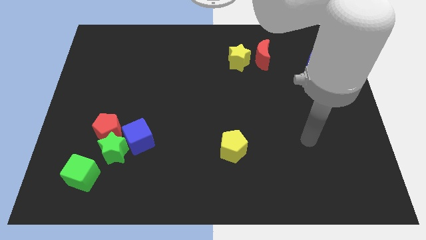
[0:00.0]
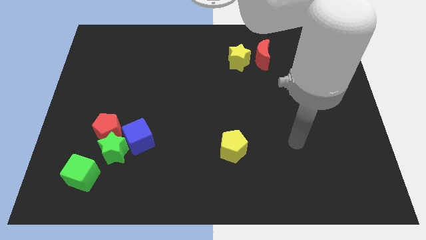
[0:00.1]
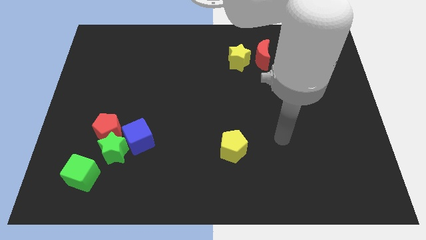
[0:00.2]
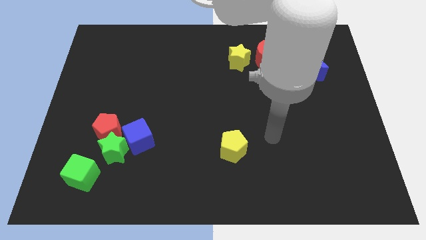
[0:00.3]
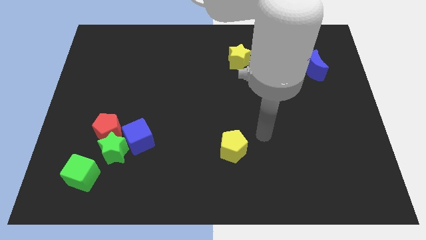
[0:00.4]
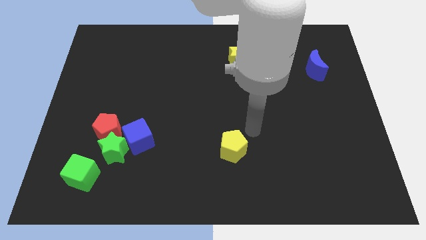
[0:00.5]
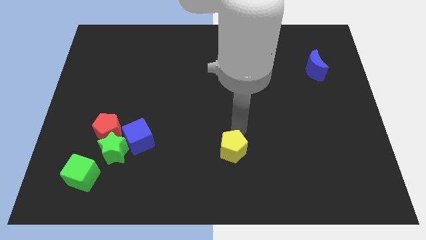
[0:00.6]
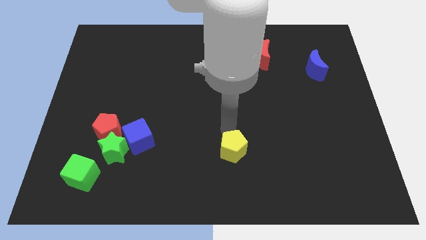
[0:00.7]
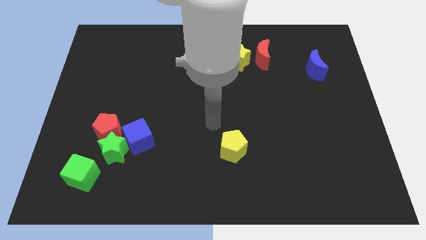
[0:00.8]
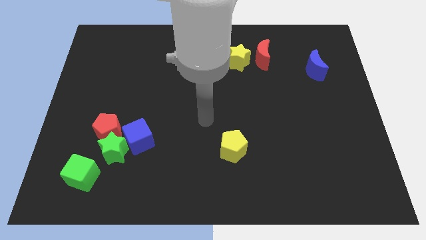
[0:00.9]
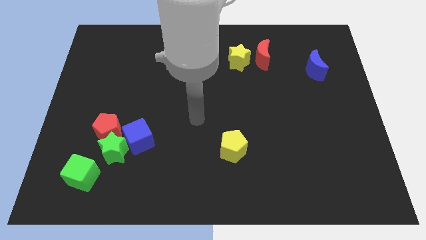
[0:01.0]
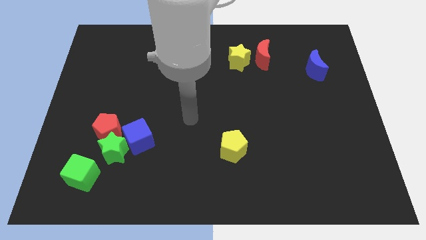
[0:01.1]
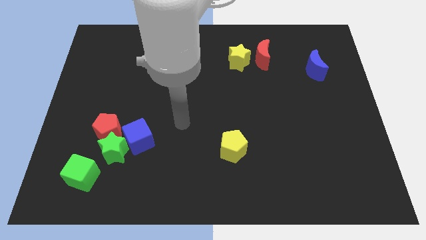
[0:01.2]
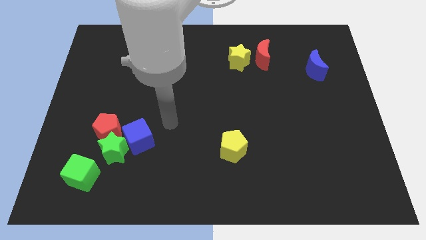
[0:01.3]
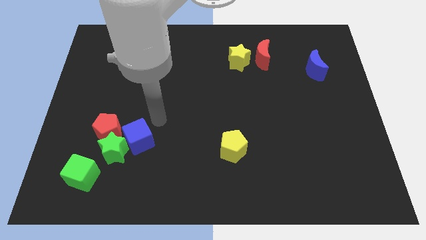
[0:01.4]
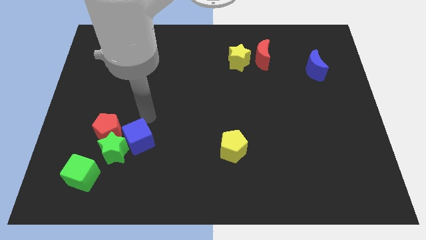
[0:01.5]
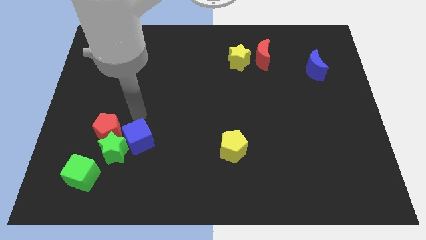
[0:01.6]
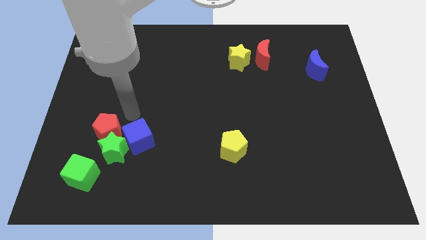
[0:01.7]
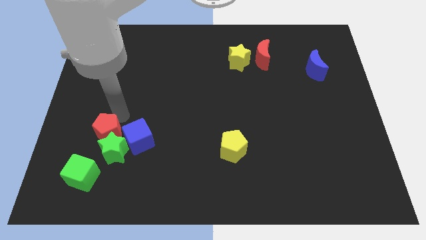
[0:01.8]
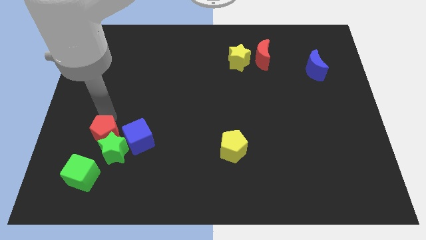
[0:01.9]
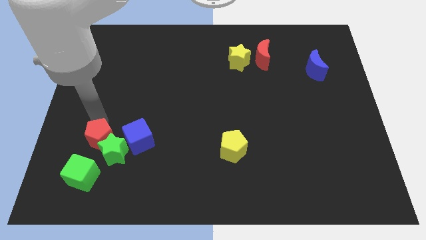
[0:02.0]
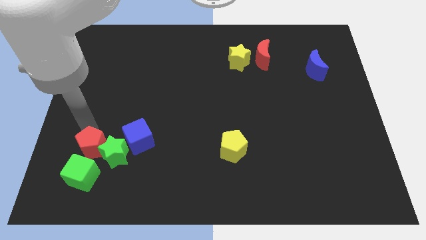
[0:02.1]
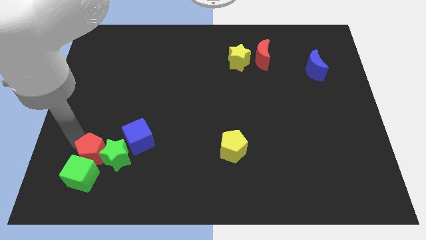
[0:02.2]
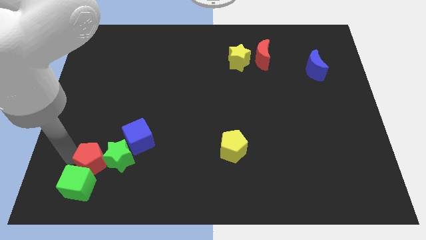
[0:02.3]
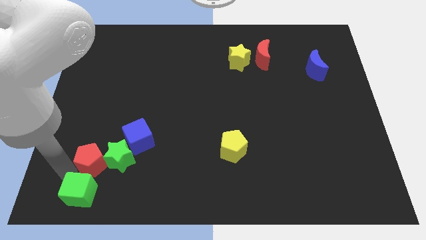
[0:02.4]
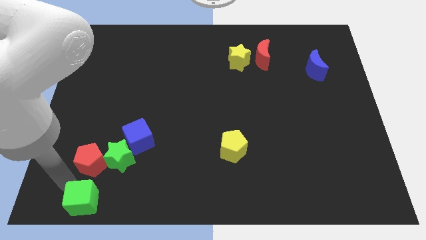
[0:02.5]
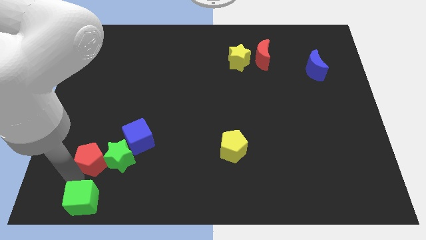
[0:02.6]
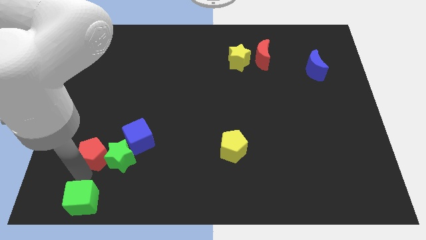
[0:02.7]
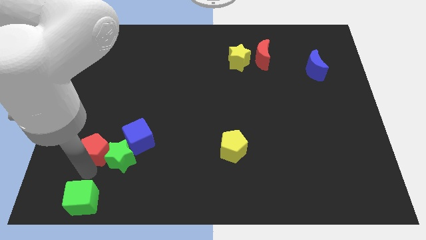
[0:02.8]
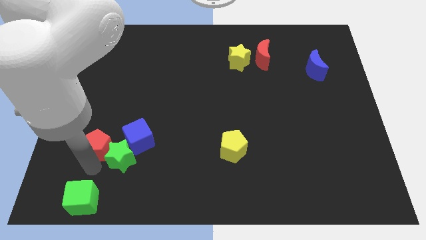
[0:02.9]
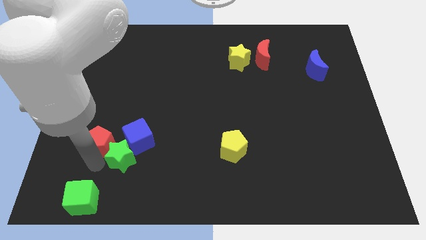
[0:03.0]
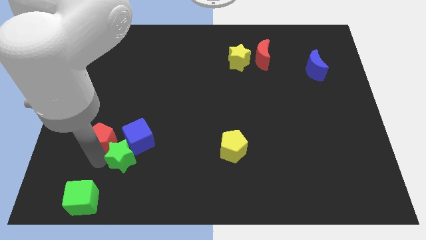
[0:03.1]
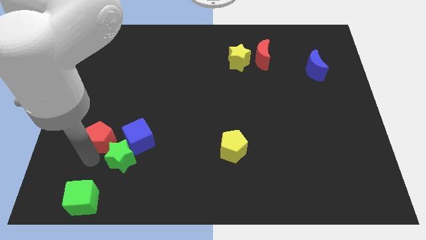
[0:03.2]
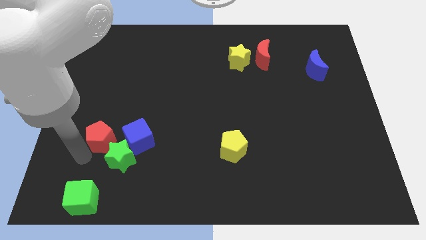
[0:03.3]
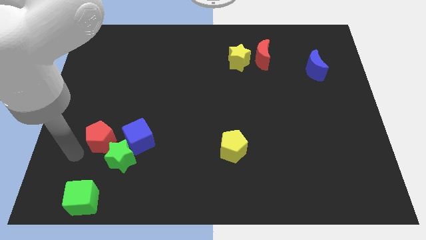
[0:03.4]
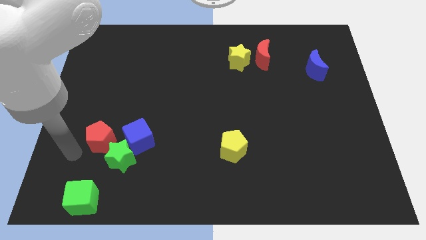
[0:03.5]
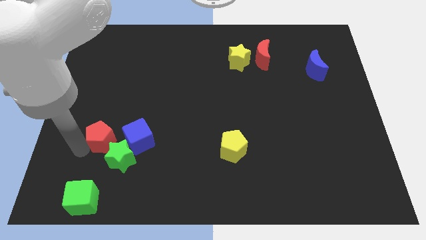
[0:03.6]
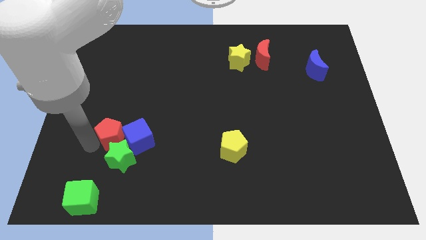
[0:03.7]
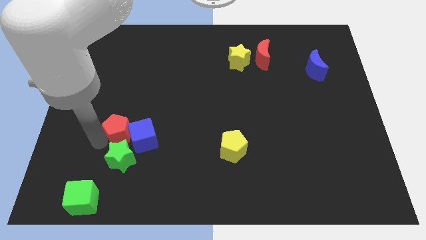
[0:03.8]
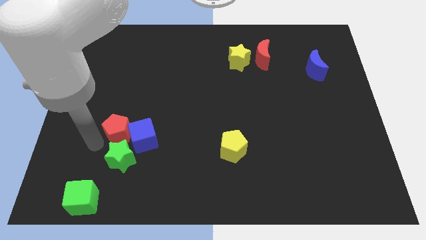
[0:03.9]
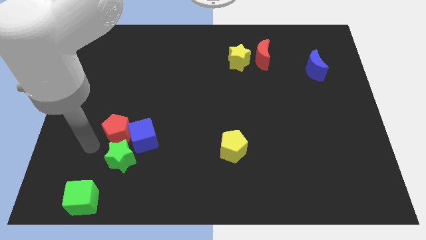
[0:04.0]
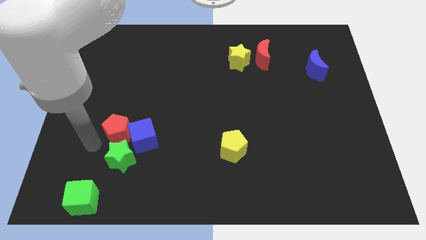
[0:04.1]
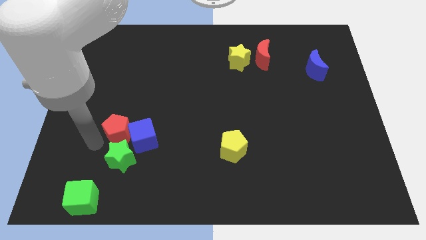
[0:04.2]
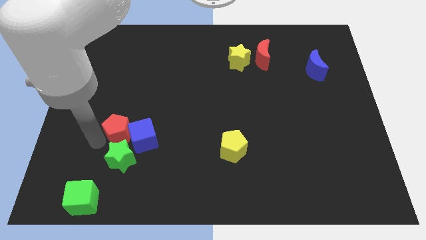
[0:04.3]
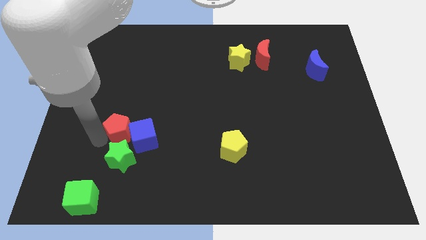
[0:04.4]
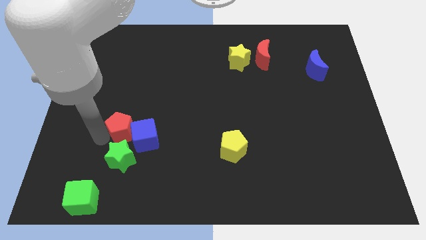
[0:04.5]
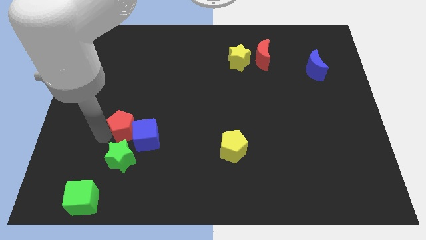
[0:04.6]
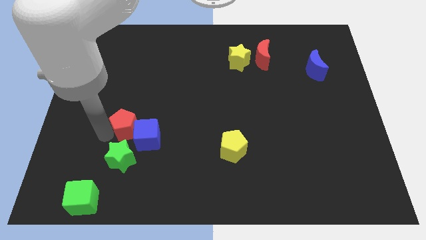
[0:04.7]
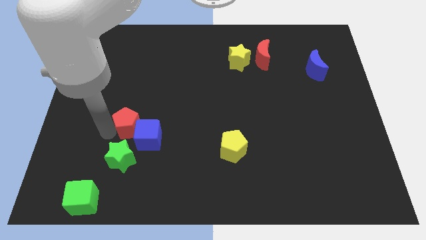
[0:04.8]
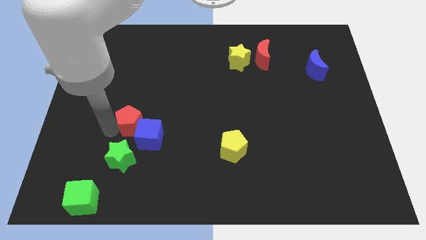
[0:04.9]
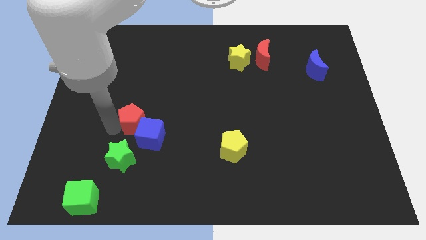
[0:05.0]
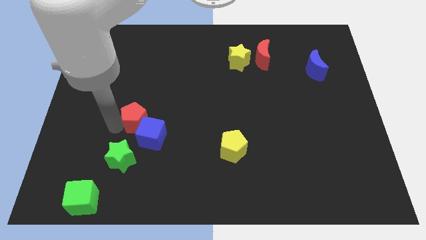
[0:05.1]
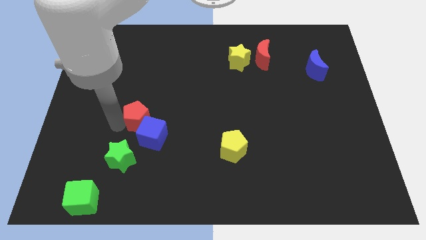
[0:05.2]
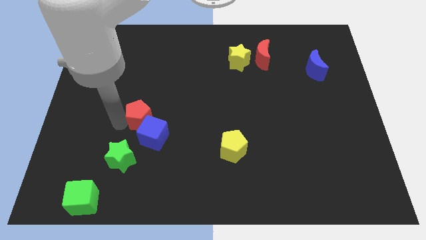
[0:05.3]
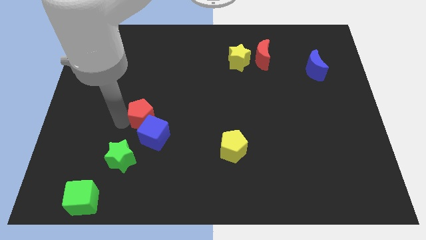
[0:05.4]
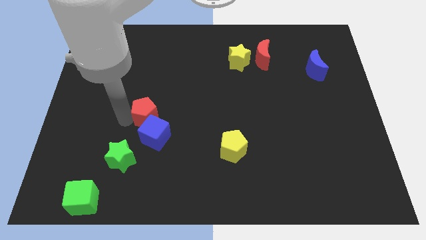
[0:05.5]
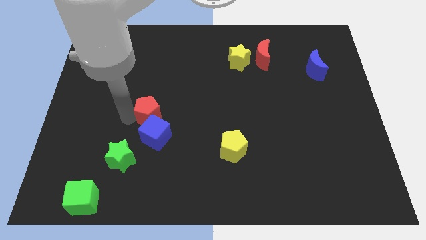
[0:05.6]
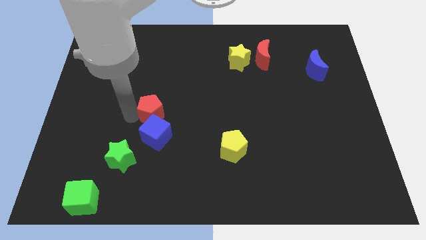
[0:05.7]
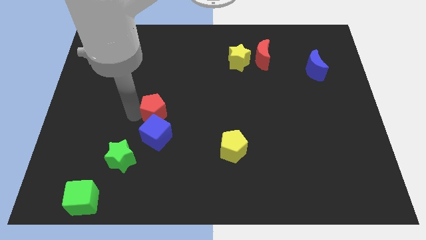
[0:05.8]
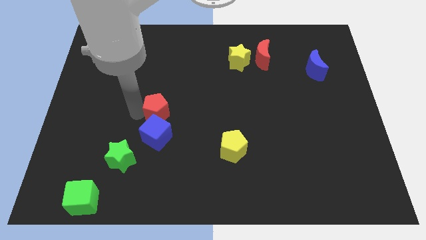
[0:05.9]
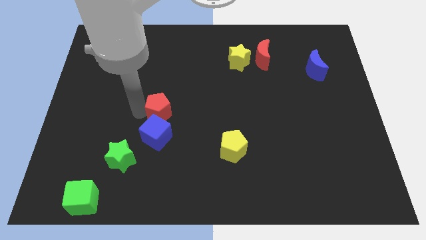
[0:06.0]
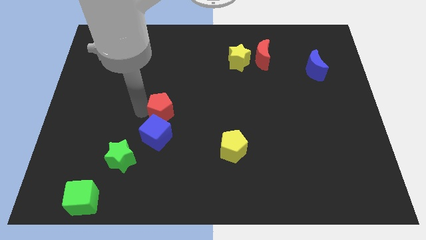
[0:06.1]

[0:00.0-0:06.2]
push the red pentagon to the center of the board
